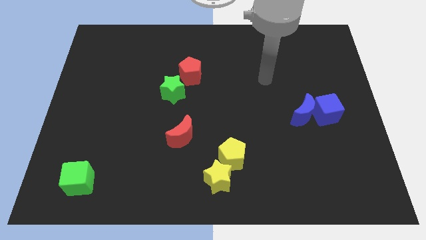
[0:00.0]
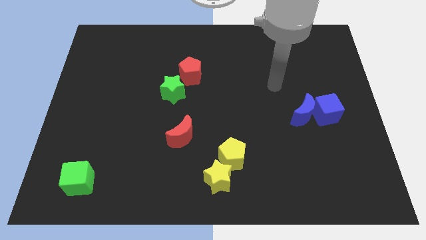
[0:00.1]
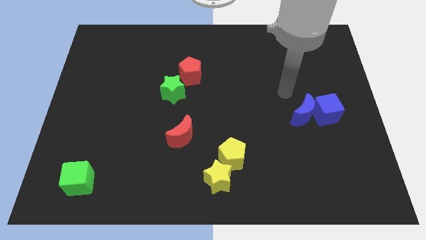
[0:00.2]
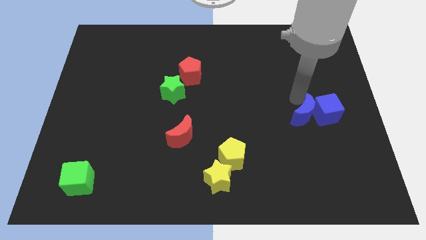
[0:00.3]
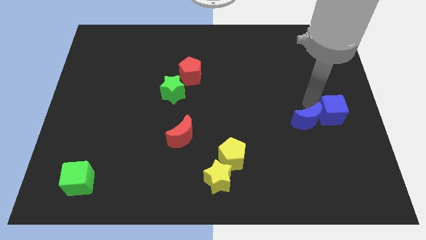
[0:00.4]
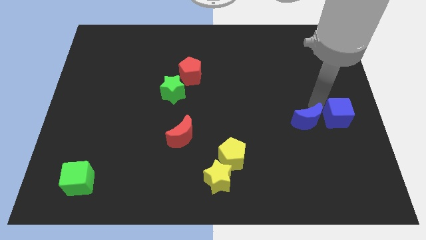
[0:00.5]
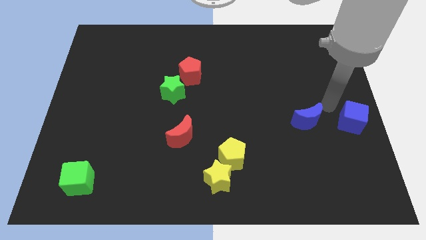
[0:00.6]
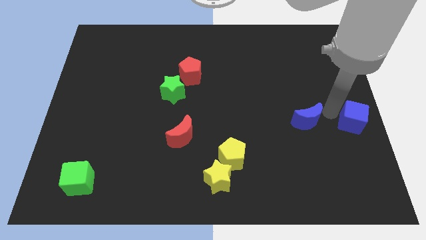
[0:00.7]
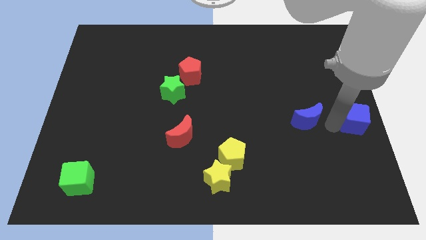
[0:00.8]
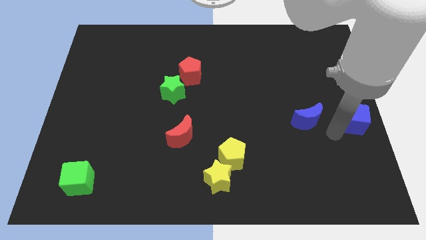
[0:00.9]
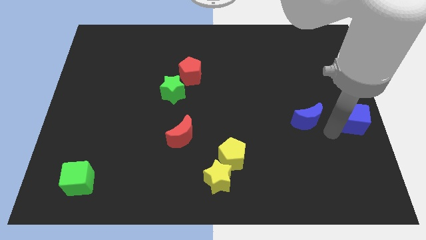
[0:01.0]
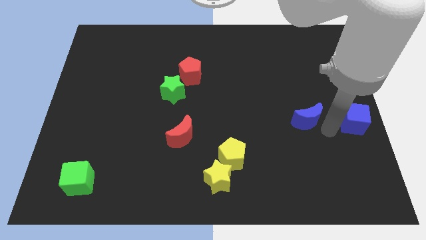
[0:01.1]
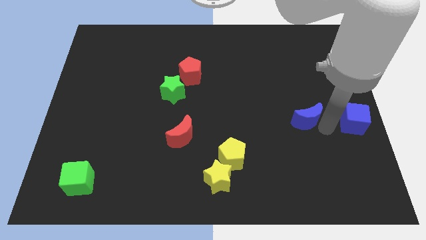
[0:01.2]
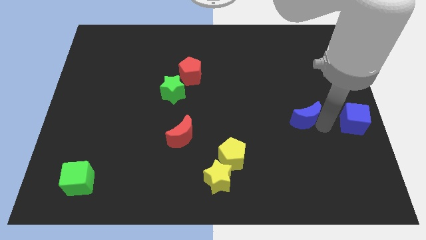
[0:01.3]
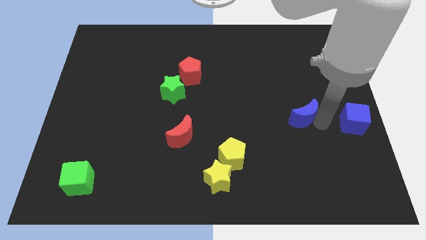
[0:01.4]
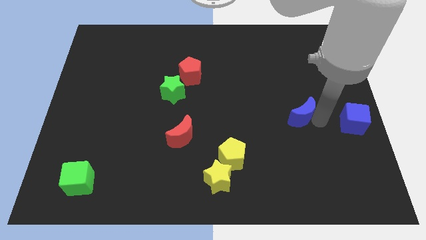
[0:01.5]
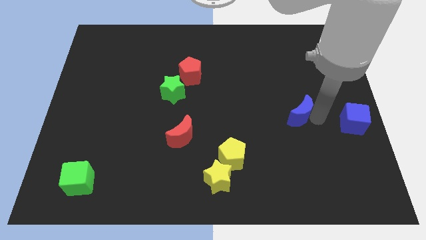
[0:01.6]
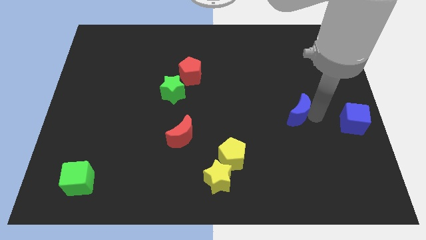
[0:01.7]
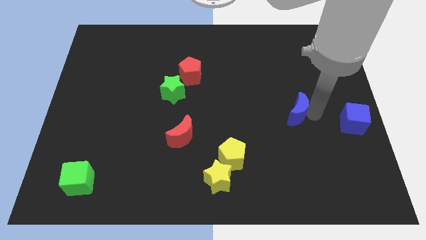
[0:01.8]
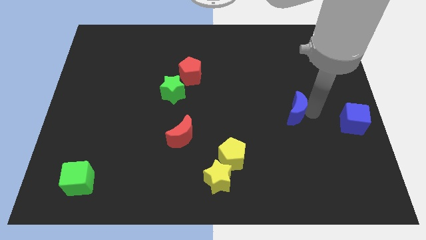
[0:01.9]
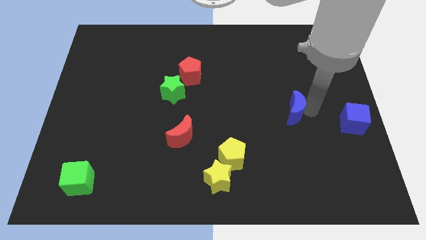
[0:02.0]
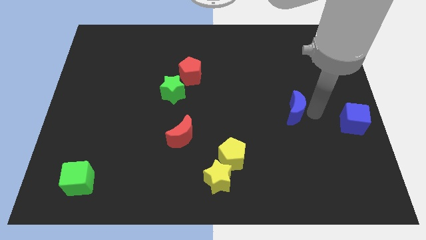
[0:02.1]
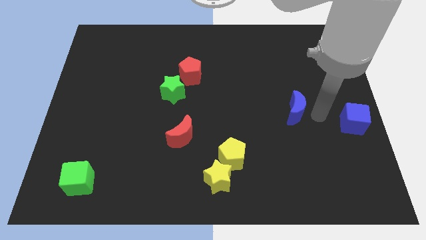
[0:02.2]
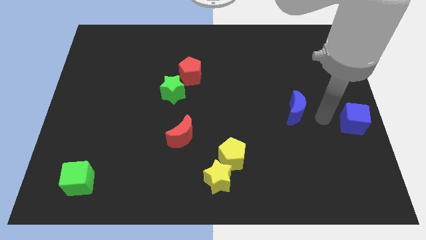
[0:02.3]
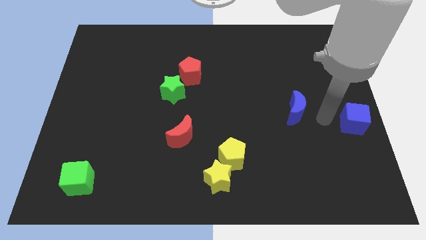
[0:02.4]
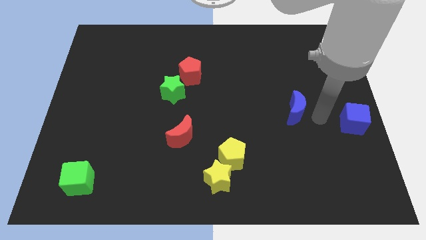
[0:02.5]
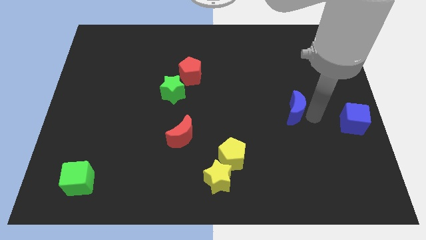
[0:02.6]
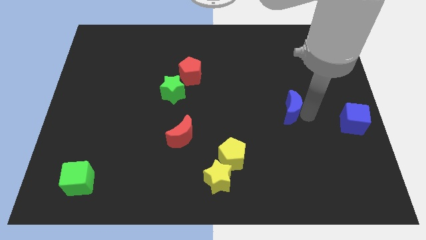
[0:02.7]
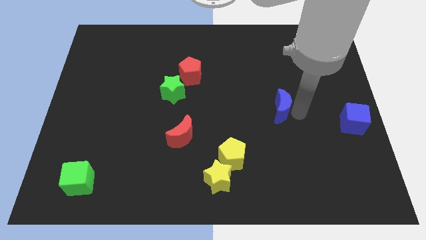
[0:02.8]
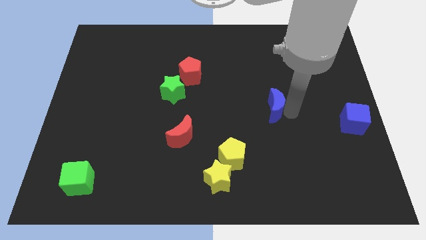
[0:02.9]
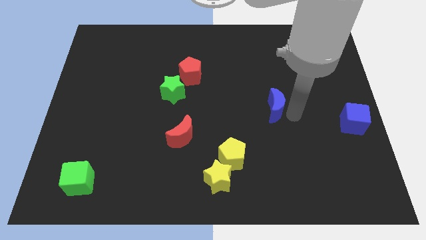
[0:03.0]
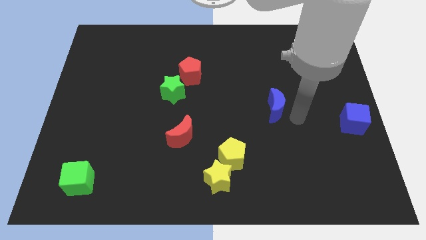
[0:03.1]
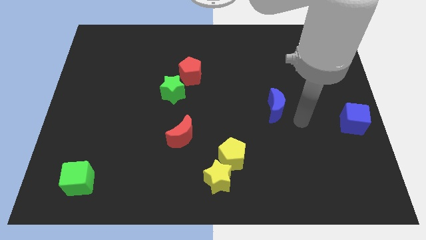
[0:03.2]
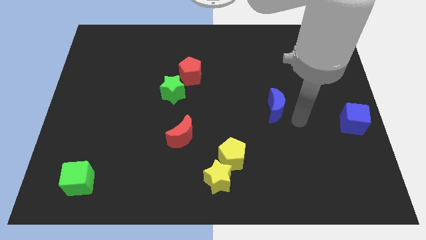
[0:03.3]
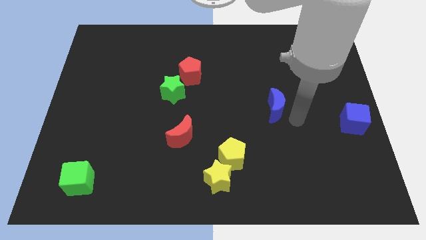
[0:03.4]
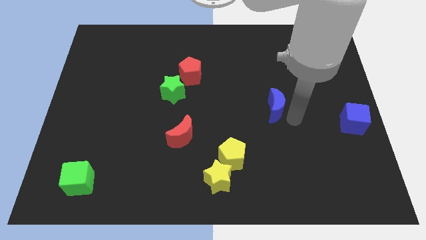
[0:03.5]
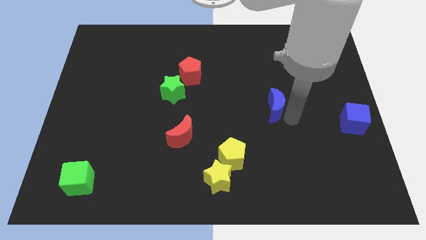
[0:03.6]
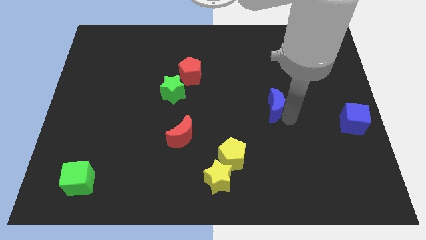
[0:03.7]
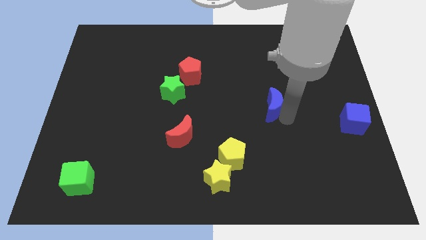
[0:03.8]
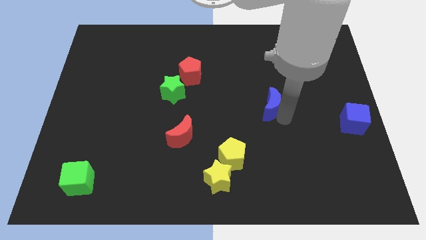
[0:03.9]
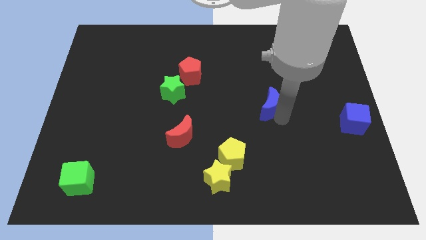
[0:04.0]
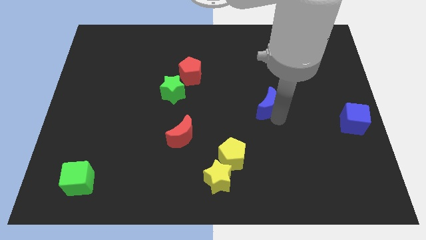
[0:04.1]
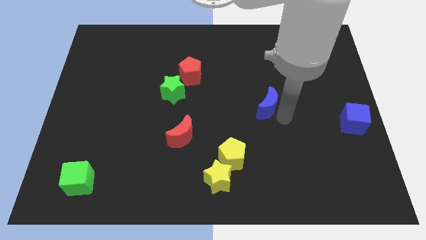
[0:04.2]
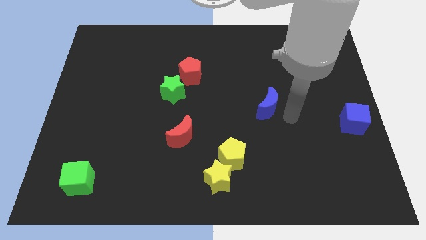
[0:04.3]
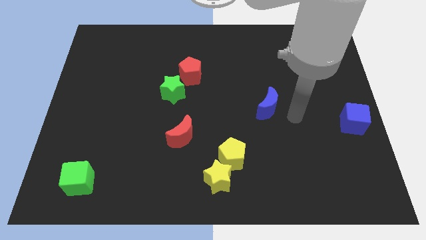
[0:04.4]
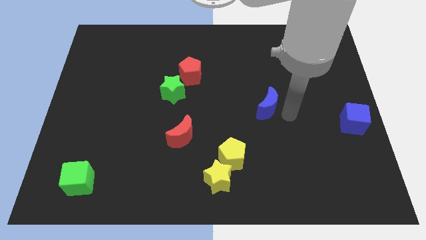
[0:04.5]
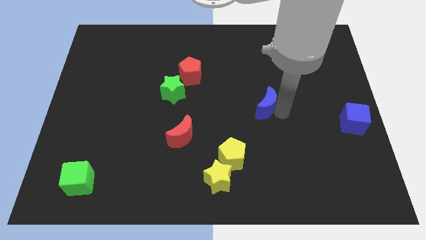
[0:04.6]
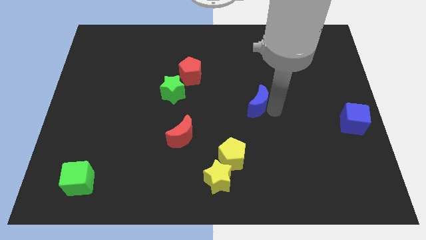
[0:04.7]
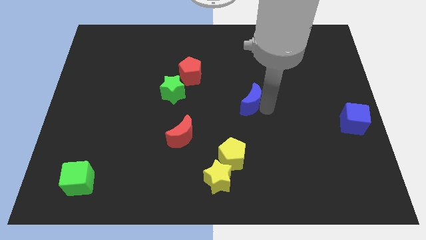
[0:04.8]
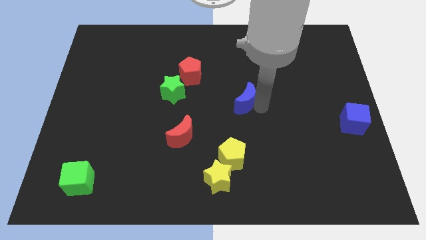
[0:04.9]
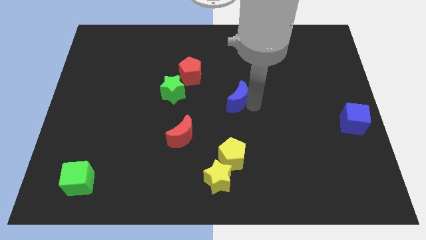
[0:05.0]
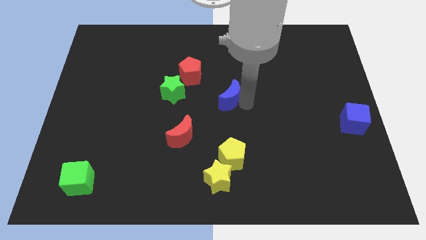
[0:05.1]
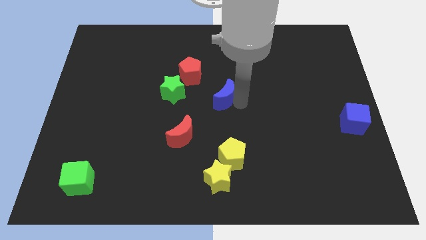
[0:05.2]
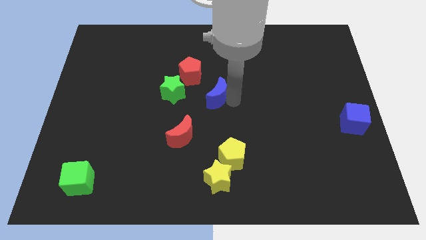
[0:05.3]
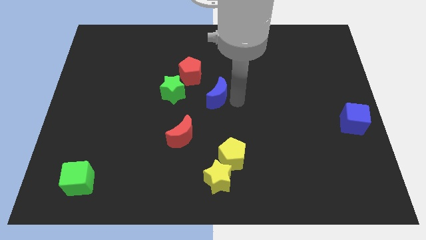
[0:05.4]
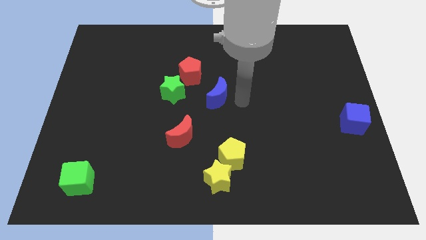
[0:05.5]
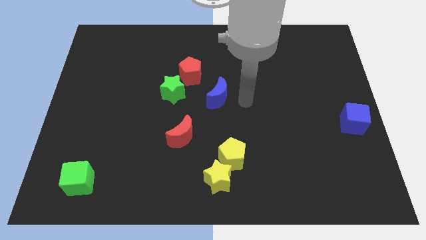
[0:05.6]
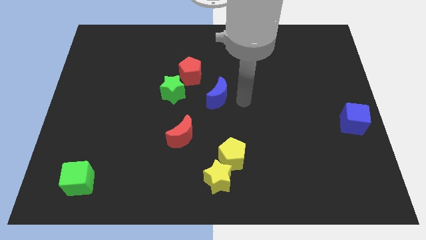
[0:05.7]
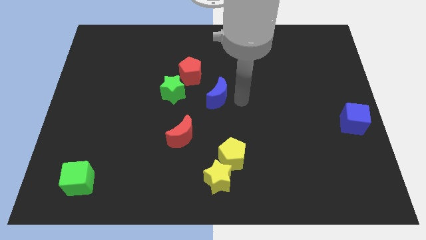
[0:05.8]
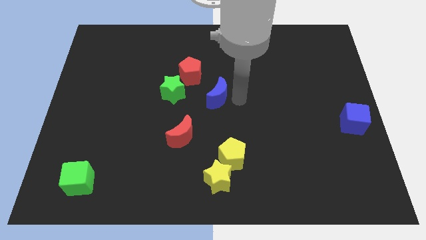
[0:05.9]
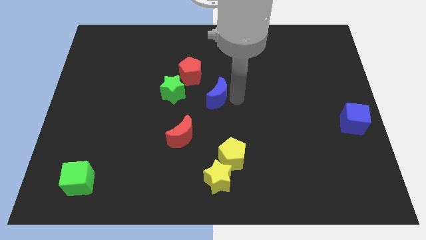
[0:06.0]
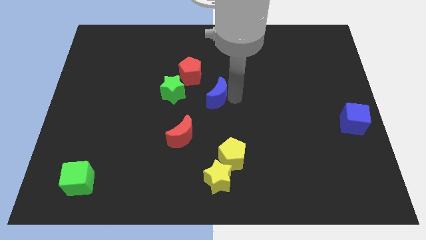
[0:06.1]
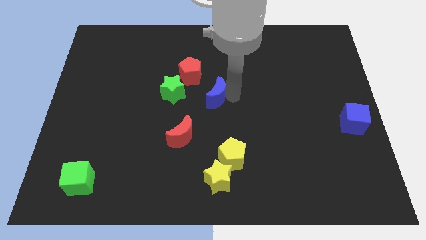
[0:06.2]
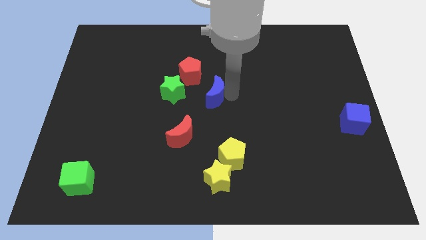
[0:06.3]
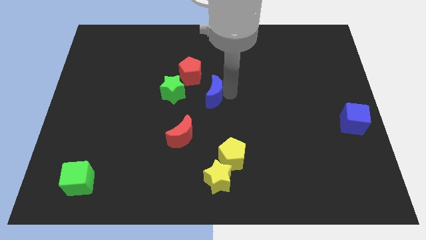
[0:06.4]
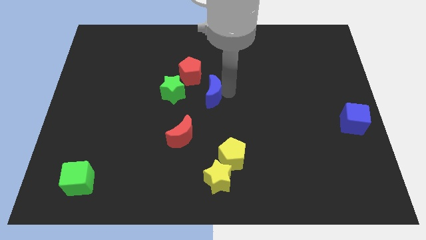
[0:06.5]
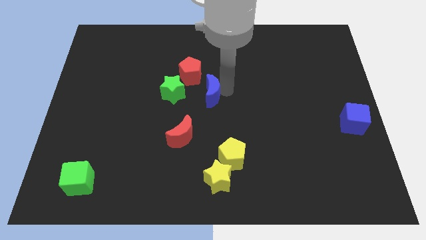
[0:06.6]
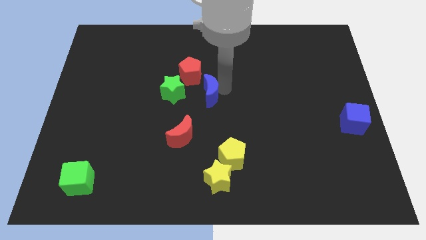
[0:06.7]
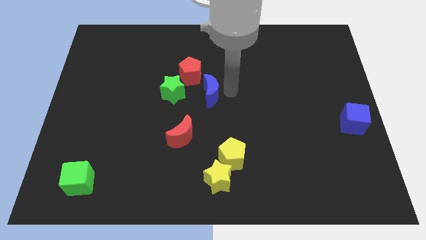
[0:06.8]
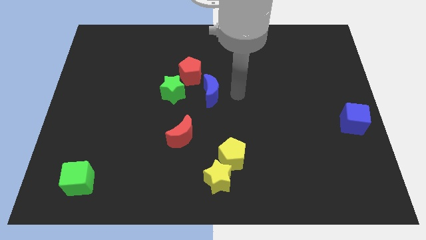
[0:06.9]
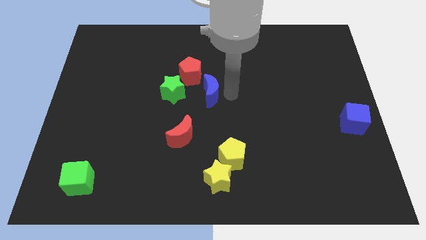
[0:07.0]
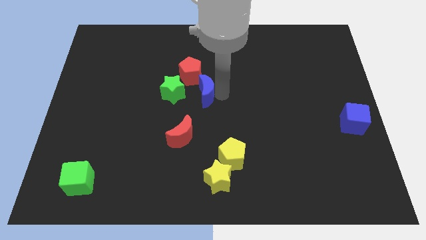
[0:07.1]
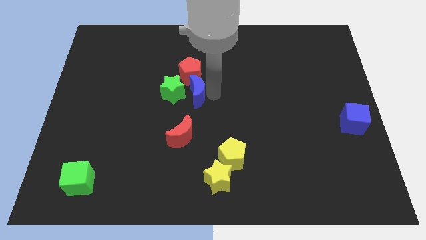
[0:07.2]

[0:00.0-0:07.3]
slide the blue moon next to the green star
